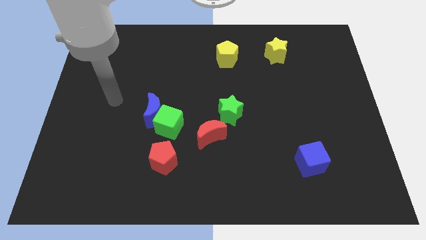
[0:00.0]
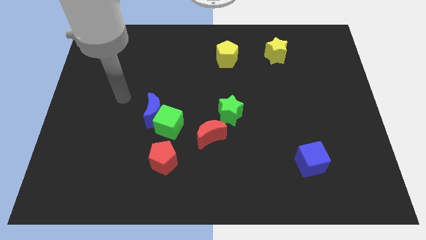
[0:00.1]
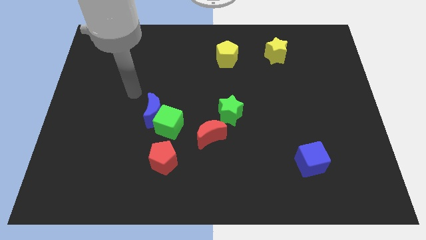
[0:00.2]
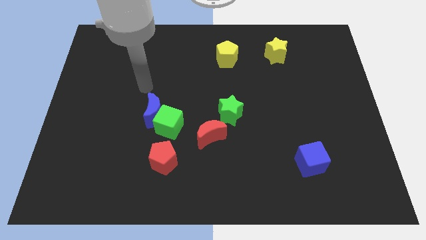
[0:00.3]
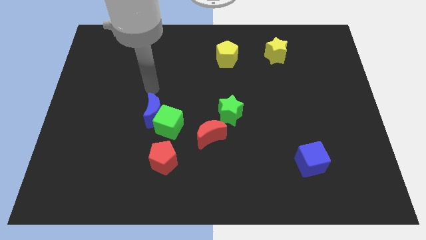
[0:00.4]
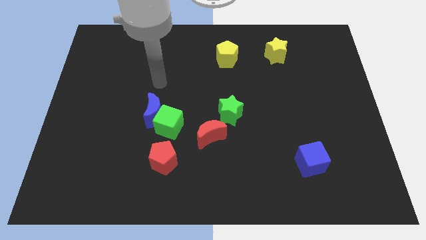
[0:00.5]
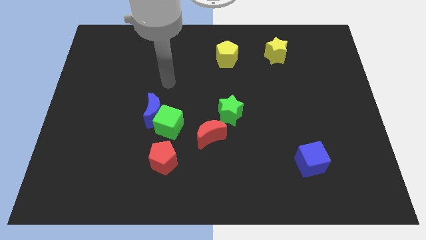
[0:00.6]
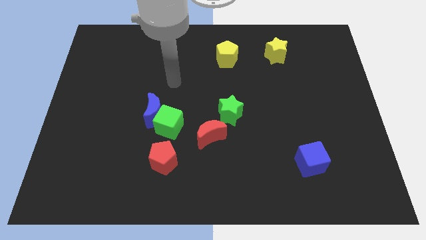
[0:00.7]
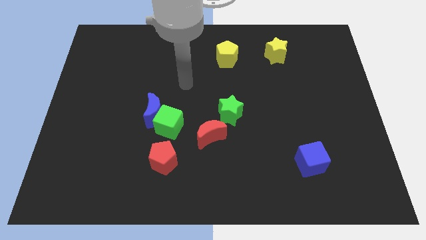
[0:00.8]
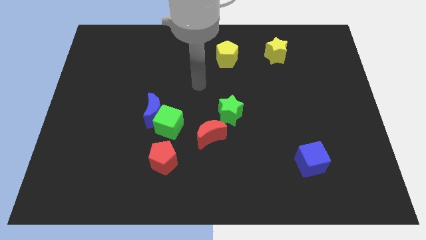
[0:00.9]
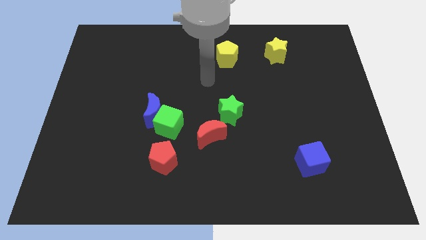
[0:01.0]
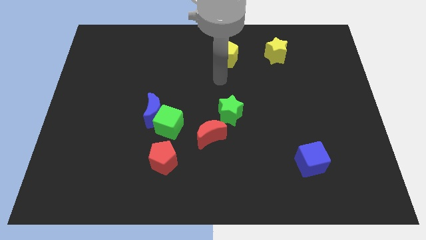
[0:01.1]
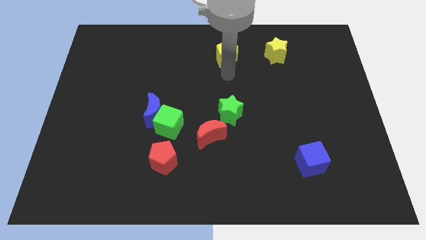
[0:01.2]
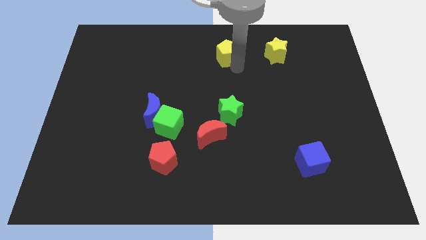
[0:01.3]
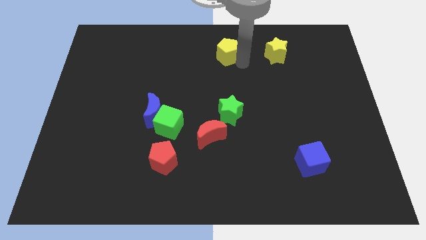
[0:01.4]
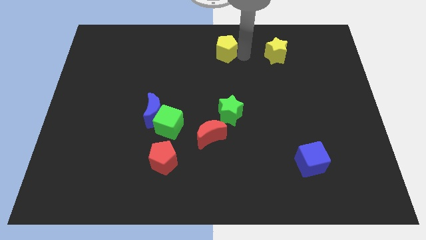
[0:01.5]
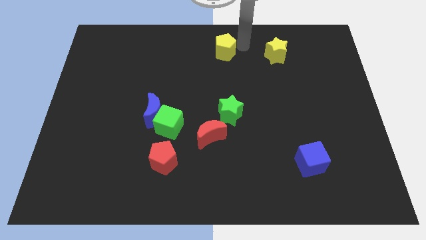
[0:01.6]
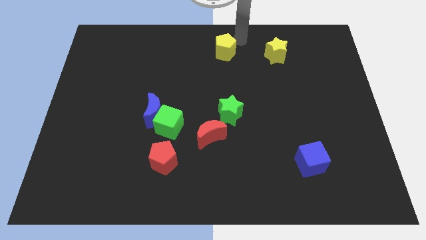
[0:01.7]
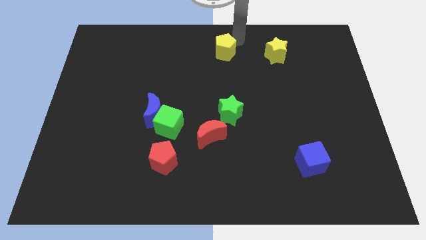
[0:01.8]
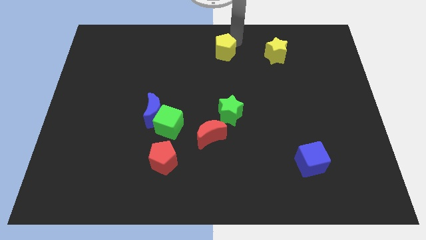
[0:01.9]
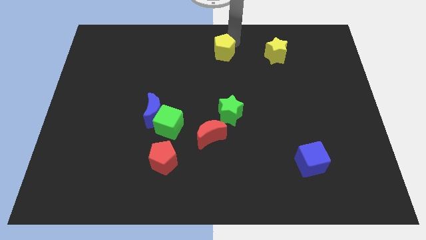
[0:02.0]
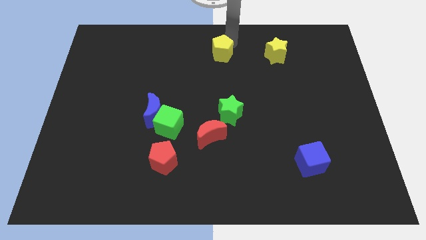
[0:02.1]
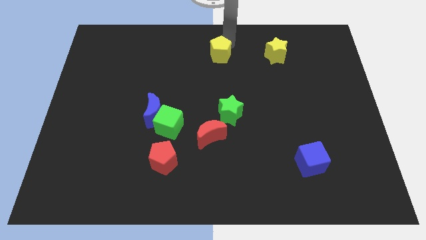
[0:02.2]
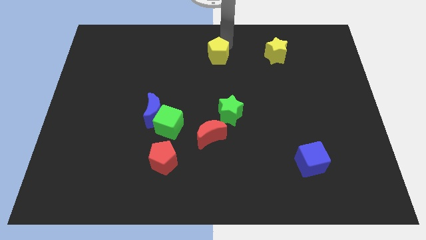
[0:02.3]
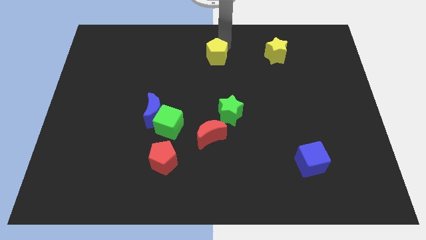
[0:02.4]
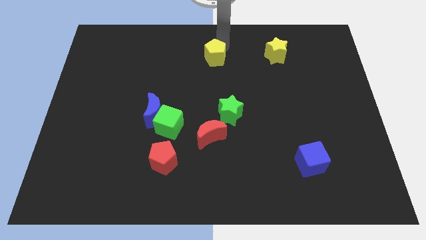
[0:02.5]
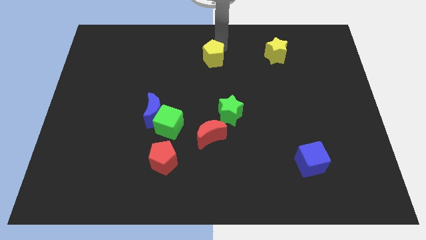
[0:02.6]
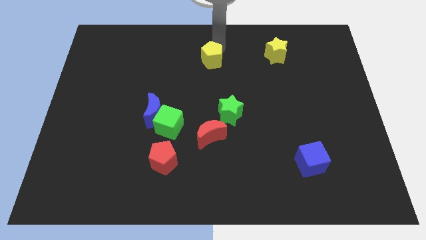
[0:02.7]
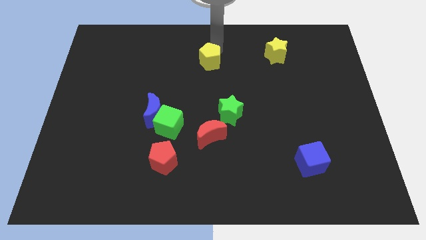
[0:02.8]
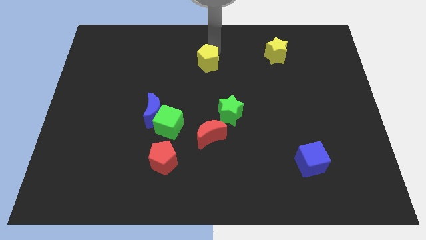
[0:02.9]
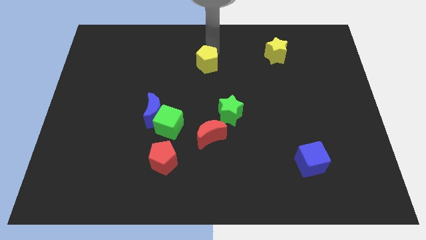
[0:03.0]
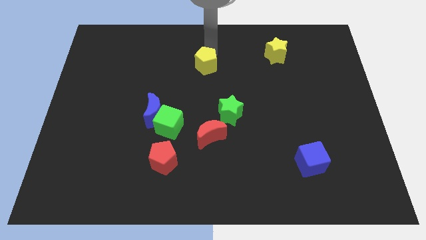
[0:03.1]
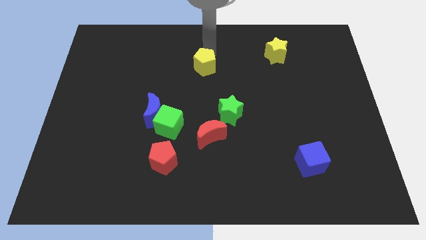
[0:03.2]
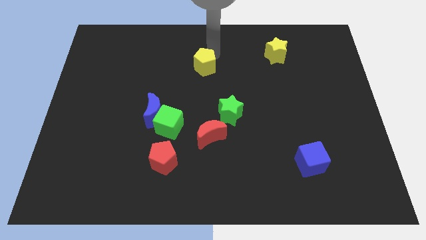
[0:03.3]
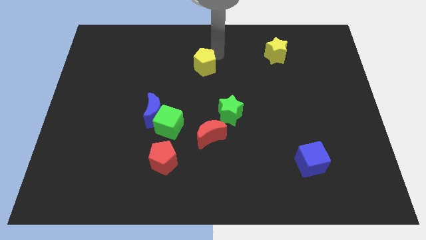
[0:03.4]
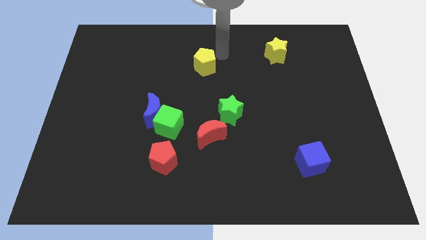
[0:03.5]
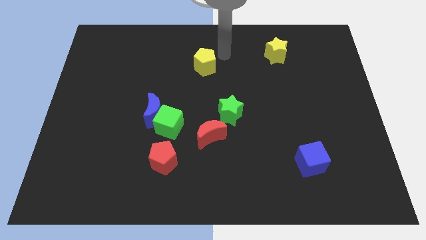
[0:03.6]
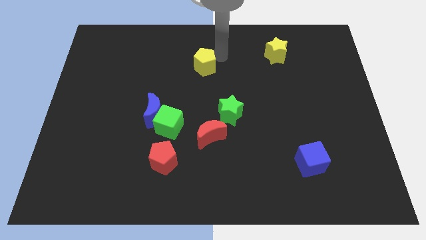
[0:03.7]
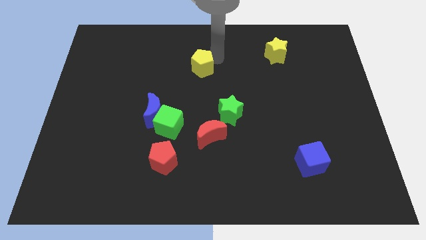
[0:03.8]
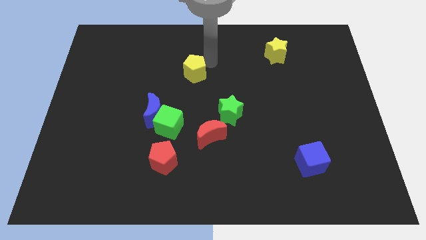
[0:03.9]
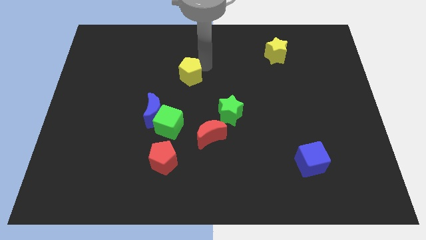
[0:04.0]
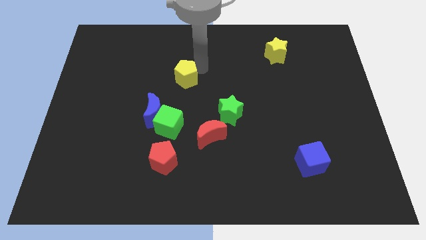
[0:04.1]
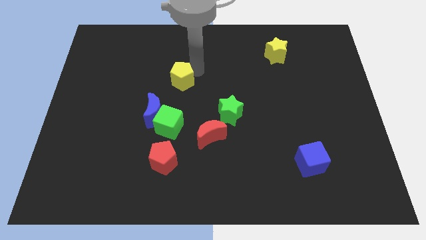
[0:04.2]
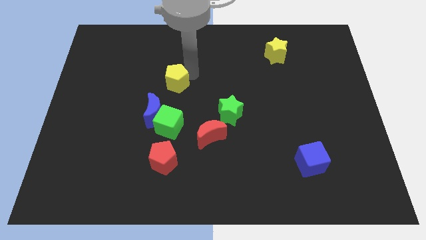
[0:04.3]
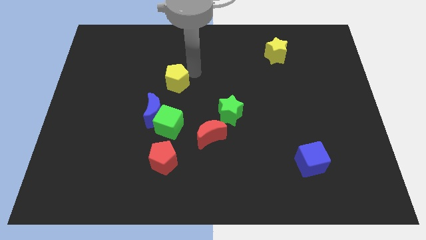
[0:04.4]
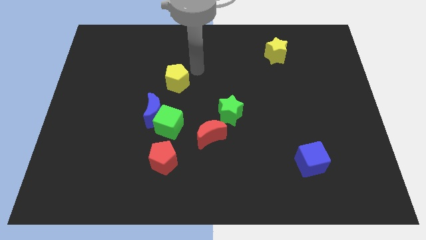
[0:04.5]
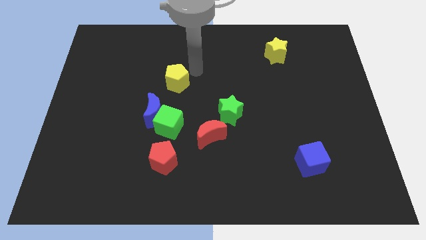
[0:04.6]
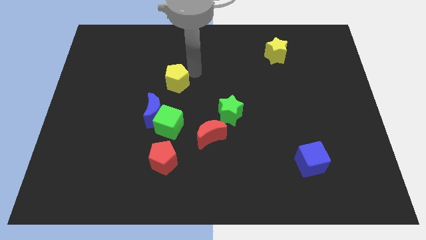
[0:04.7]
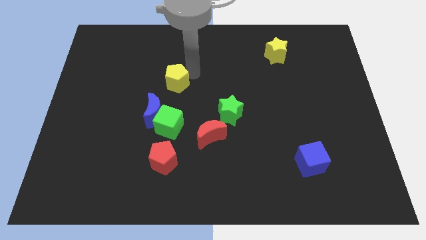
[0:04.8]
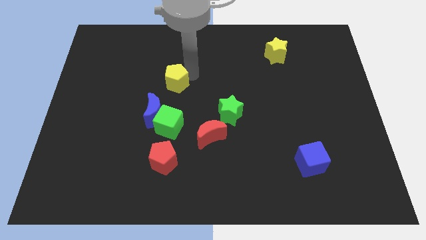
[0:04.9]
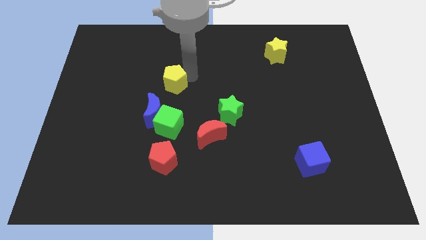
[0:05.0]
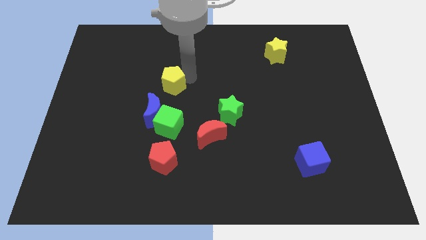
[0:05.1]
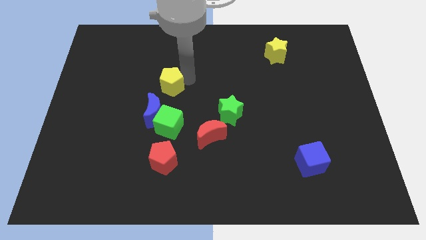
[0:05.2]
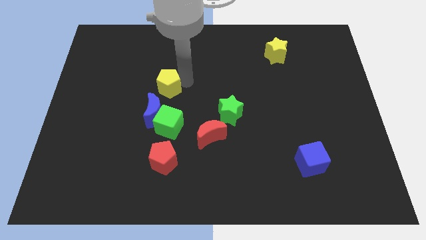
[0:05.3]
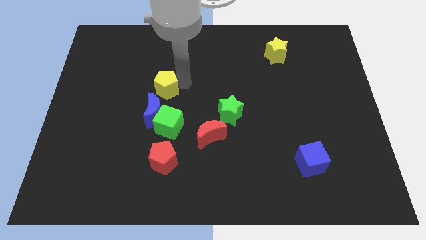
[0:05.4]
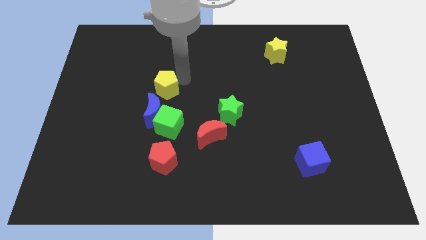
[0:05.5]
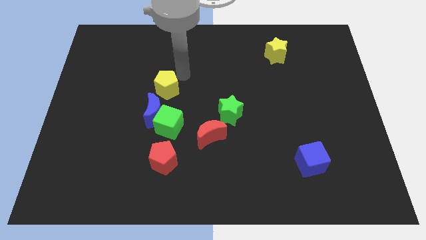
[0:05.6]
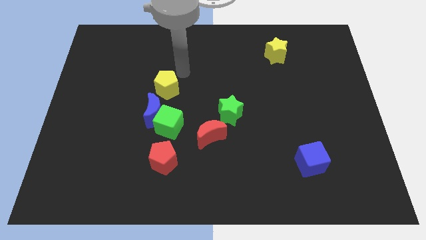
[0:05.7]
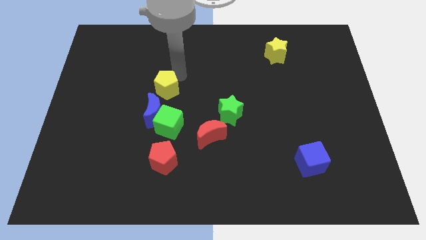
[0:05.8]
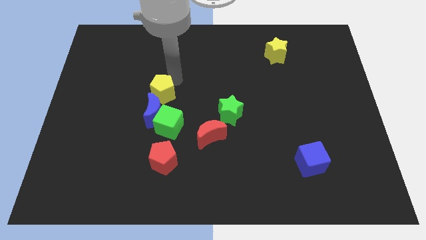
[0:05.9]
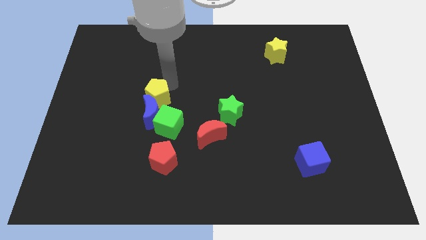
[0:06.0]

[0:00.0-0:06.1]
slide the yellow pentagon diagonally up and to the left of the green cube

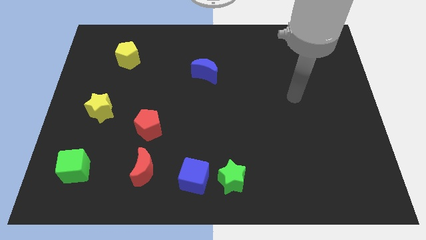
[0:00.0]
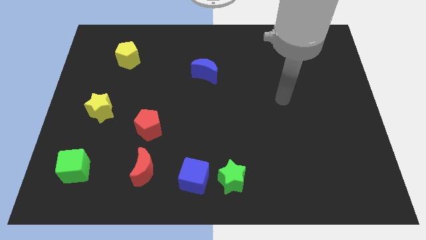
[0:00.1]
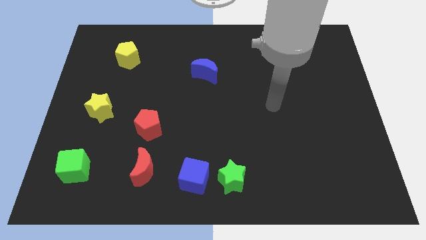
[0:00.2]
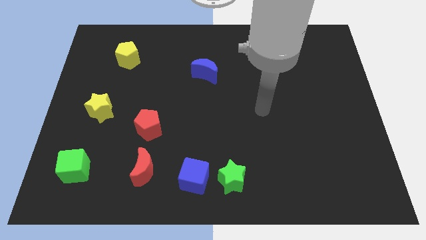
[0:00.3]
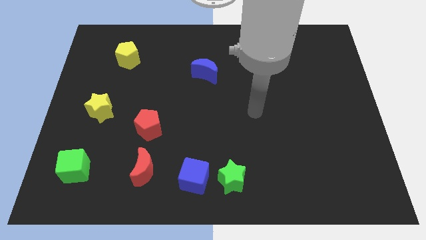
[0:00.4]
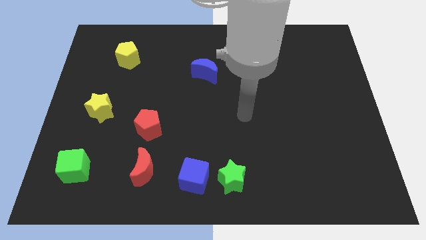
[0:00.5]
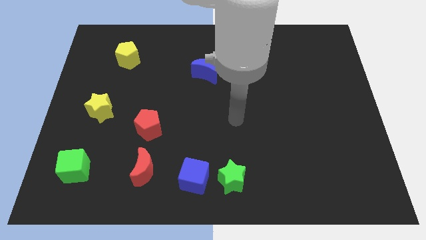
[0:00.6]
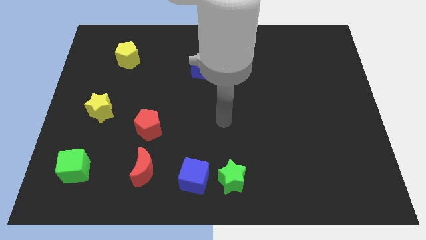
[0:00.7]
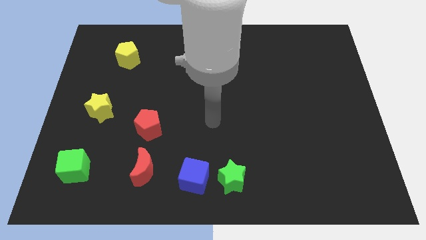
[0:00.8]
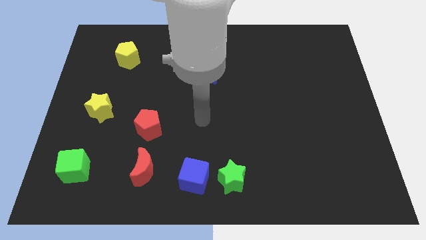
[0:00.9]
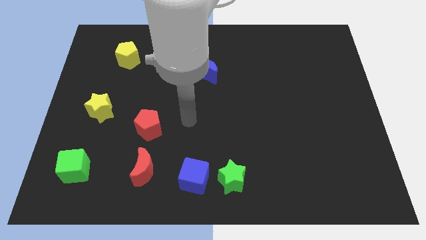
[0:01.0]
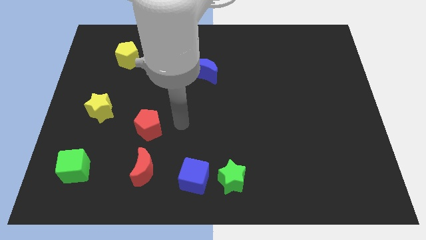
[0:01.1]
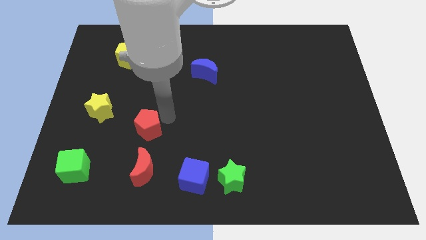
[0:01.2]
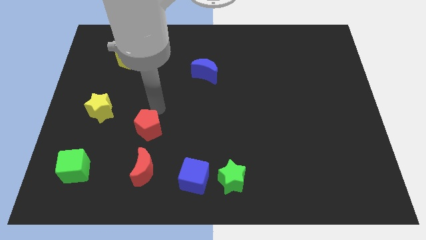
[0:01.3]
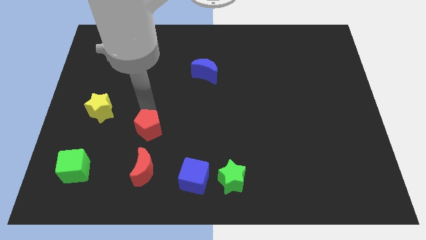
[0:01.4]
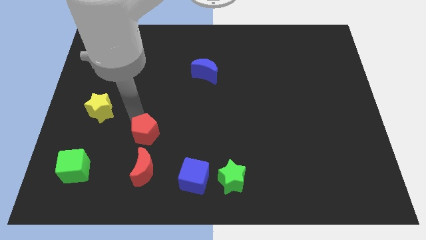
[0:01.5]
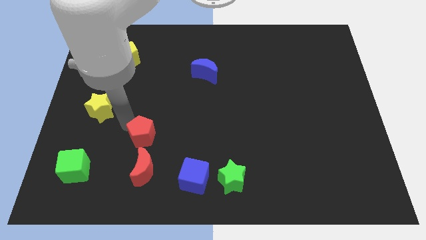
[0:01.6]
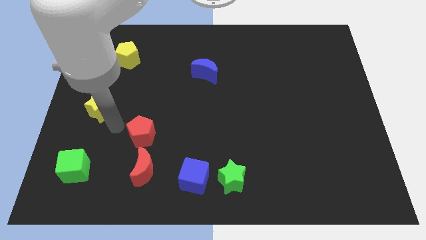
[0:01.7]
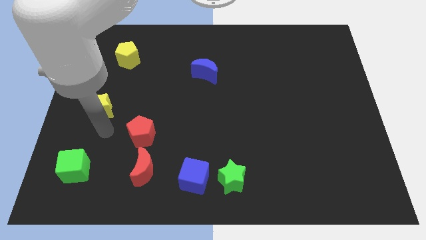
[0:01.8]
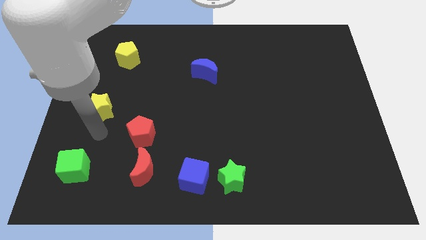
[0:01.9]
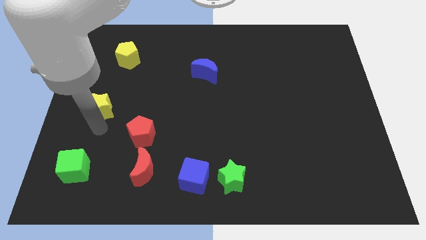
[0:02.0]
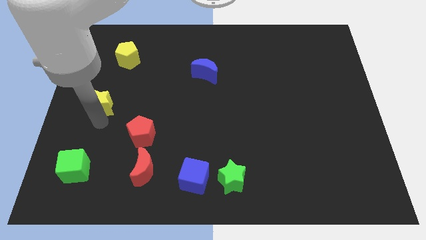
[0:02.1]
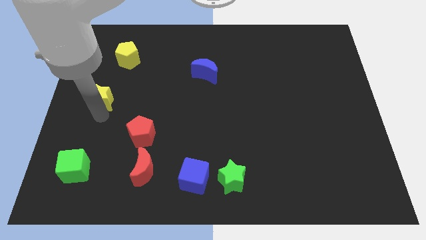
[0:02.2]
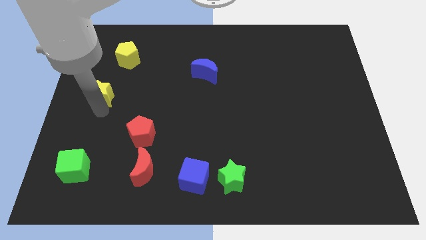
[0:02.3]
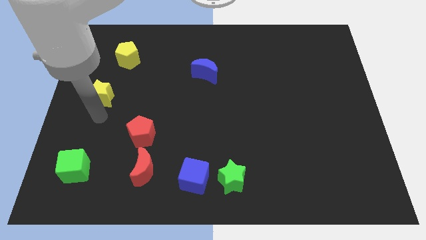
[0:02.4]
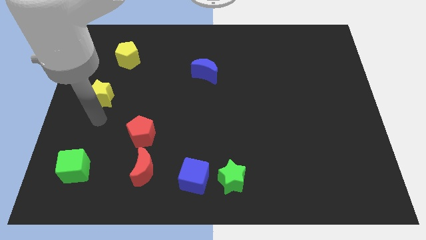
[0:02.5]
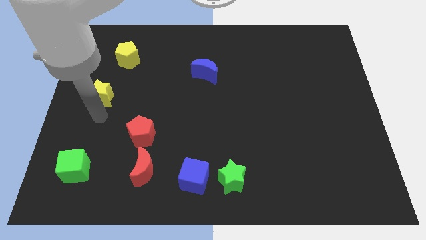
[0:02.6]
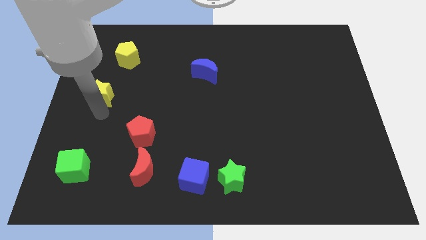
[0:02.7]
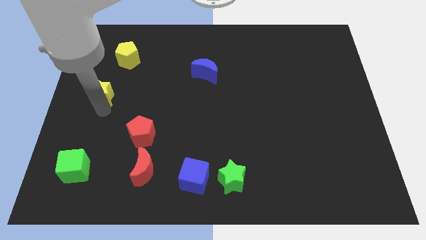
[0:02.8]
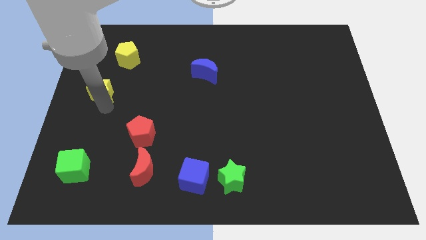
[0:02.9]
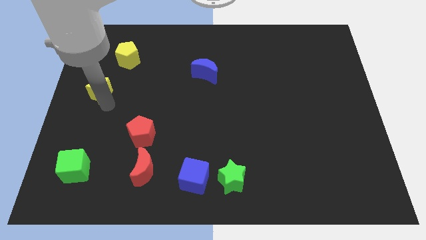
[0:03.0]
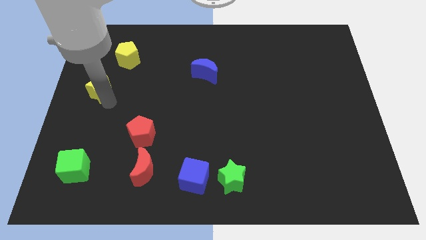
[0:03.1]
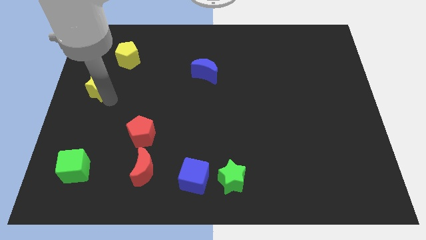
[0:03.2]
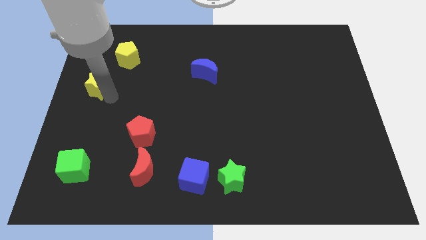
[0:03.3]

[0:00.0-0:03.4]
move the yellow star to the bottom left side of the yellow pentagon
